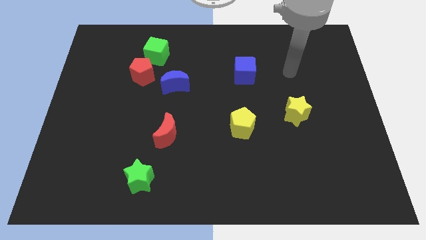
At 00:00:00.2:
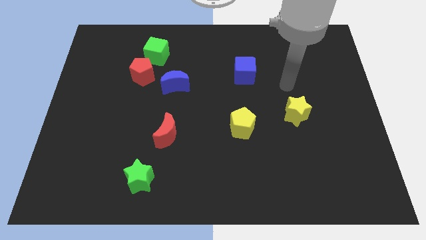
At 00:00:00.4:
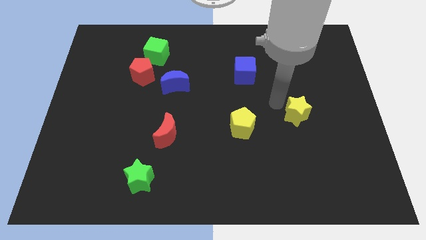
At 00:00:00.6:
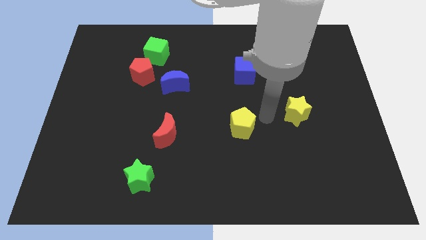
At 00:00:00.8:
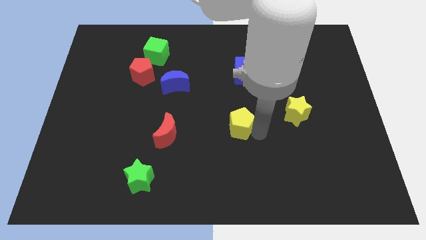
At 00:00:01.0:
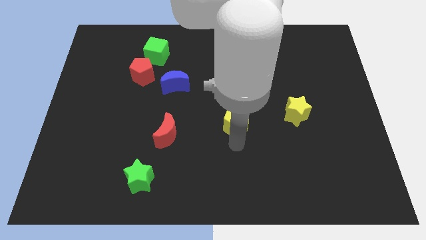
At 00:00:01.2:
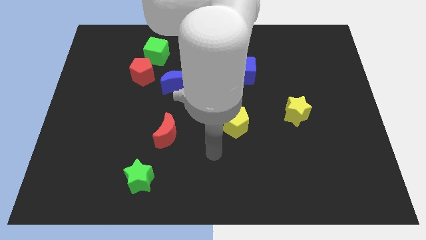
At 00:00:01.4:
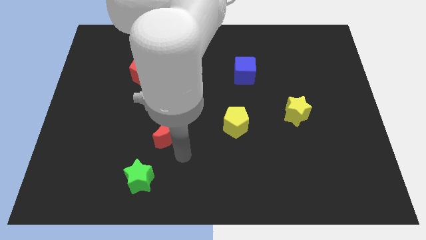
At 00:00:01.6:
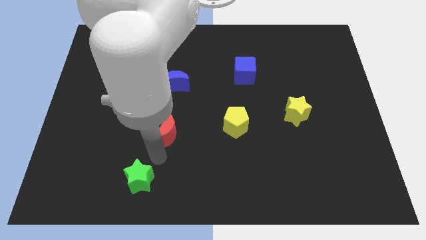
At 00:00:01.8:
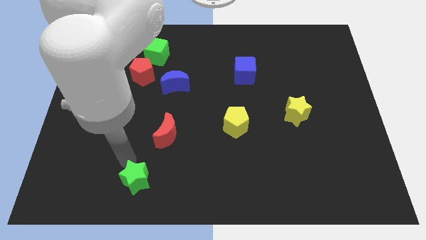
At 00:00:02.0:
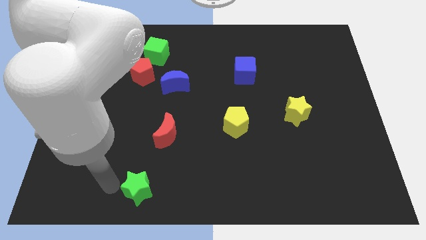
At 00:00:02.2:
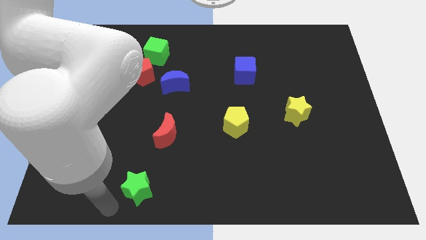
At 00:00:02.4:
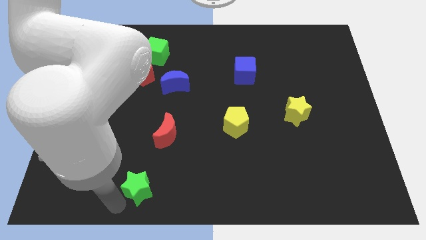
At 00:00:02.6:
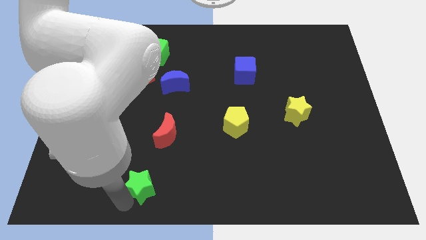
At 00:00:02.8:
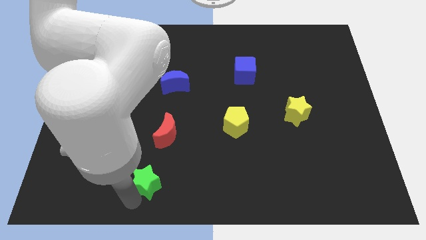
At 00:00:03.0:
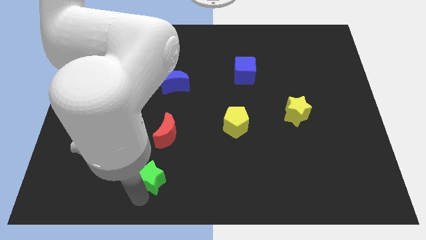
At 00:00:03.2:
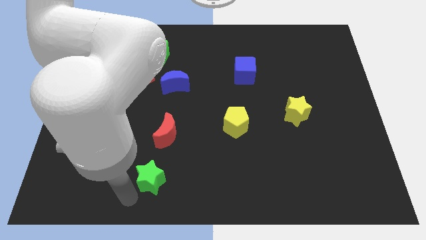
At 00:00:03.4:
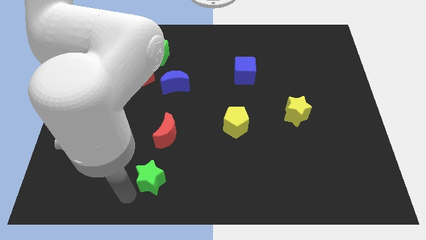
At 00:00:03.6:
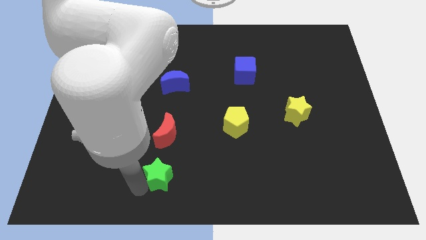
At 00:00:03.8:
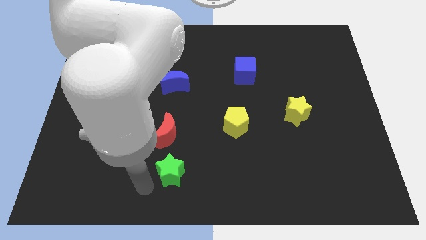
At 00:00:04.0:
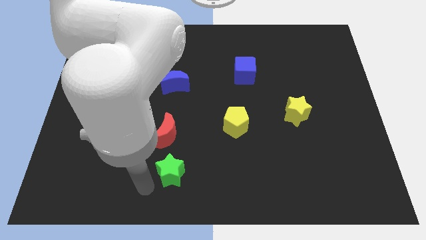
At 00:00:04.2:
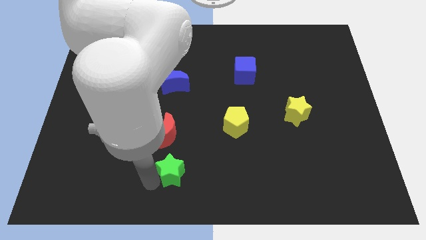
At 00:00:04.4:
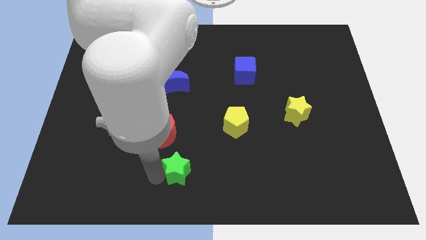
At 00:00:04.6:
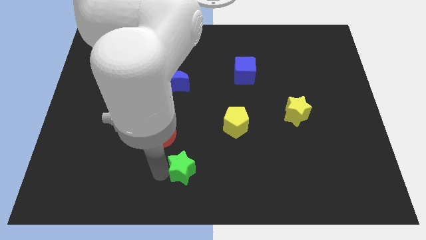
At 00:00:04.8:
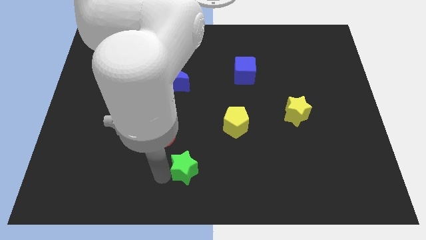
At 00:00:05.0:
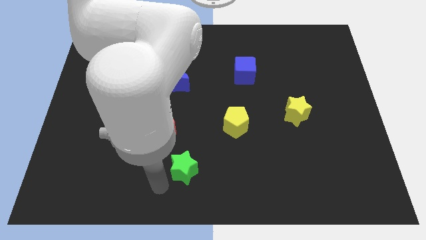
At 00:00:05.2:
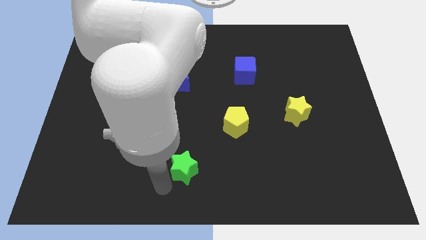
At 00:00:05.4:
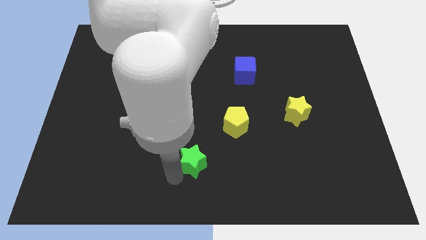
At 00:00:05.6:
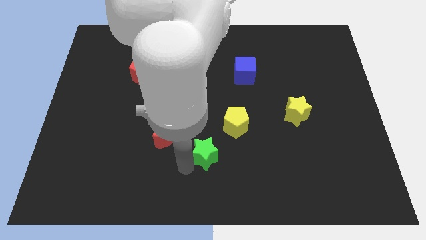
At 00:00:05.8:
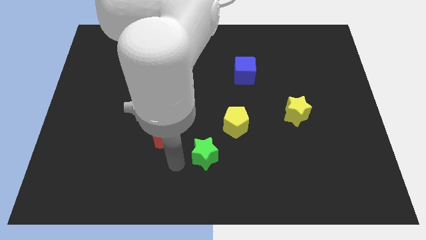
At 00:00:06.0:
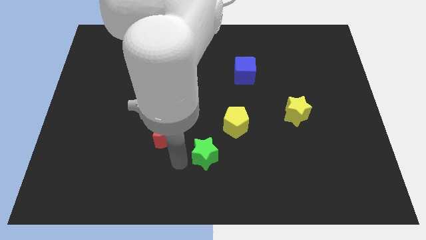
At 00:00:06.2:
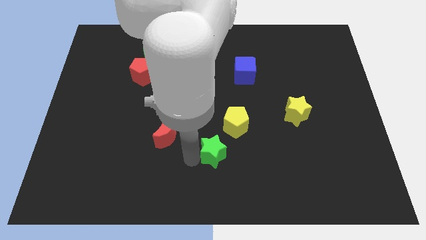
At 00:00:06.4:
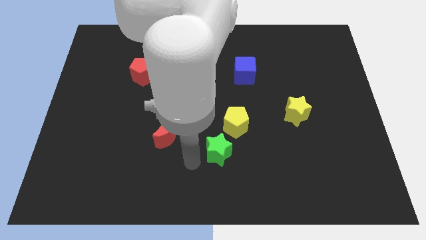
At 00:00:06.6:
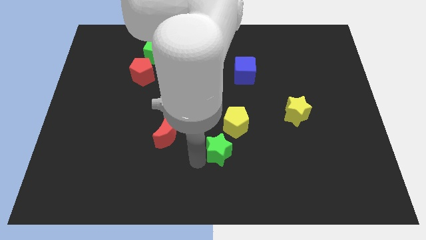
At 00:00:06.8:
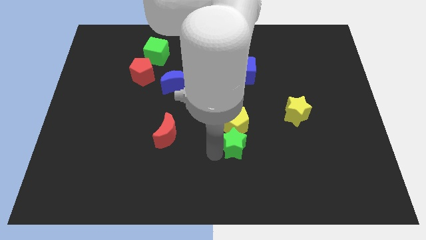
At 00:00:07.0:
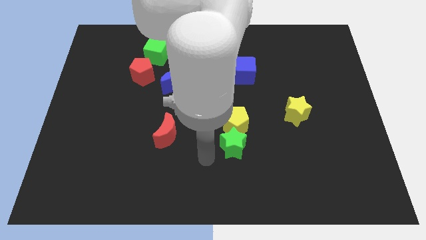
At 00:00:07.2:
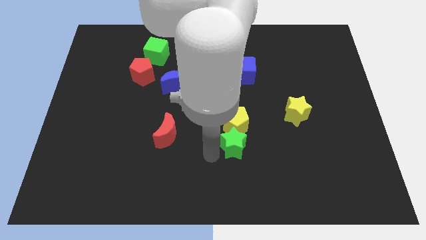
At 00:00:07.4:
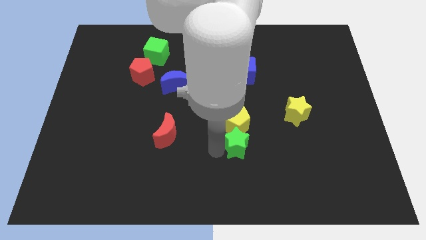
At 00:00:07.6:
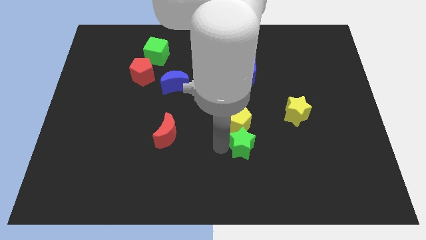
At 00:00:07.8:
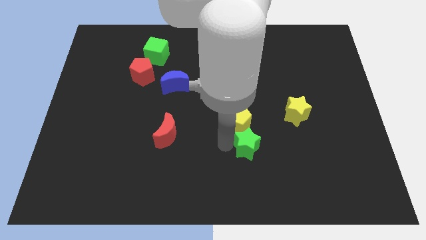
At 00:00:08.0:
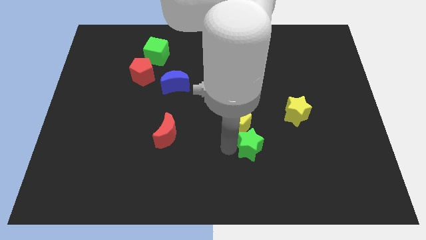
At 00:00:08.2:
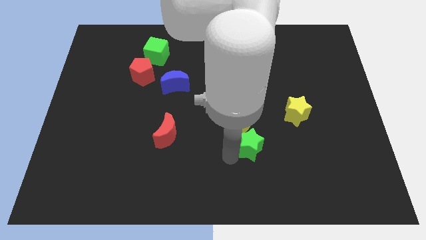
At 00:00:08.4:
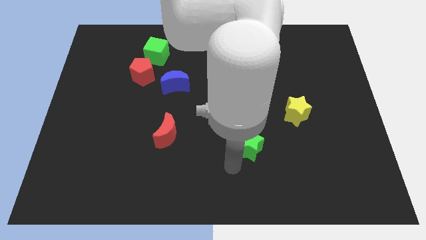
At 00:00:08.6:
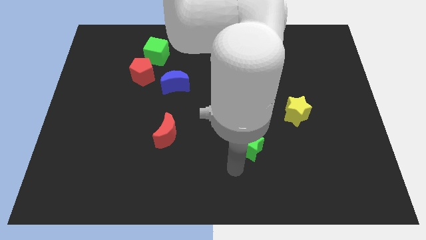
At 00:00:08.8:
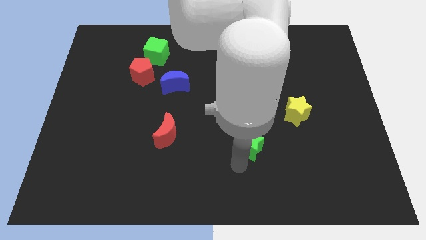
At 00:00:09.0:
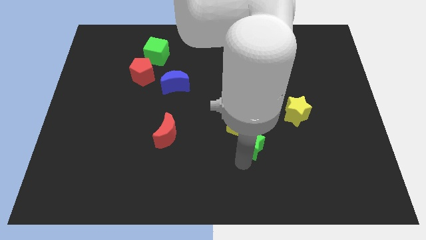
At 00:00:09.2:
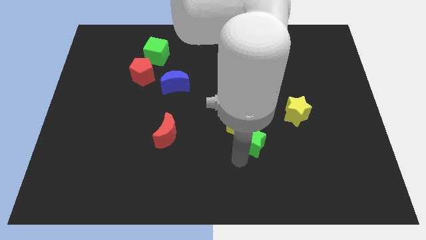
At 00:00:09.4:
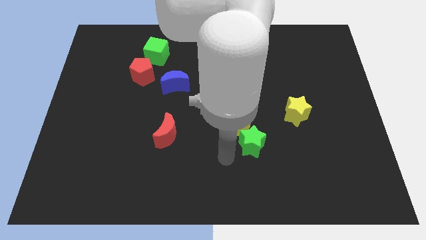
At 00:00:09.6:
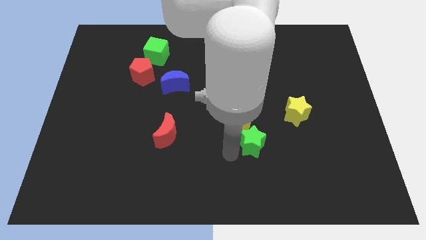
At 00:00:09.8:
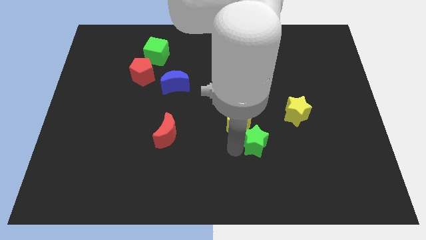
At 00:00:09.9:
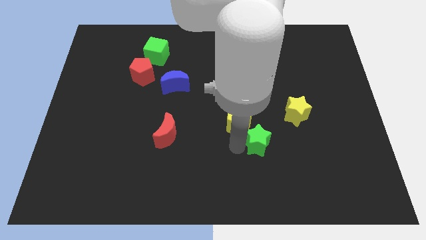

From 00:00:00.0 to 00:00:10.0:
push the green star to the bottom left of the yellow star

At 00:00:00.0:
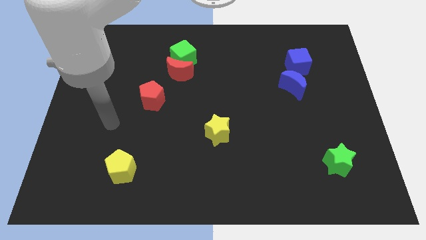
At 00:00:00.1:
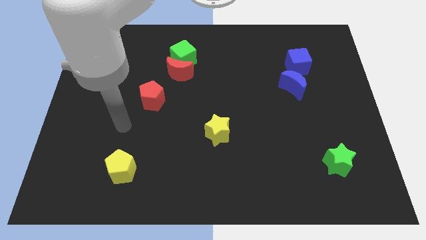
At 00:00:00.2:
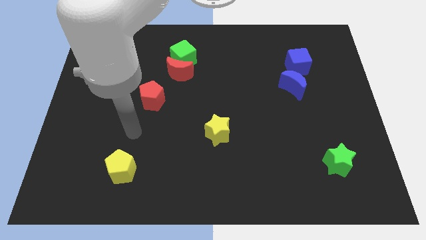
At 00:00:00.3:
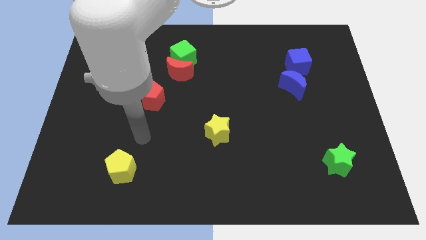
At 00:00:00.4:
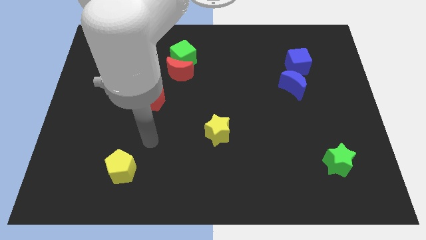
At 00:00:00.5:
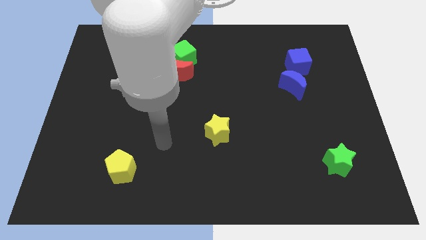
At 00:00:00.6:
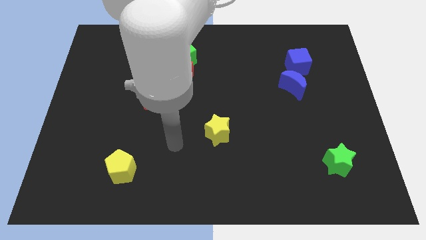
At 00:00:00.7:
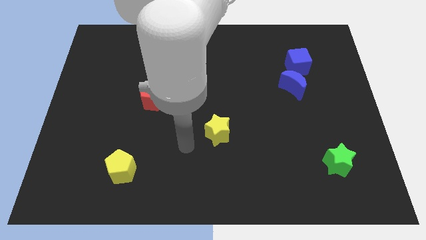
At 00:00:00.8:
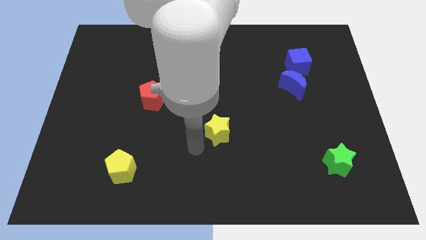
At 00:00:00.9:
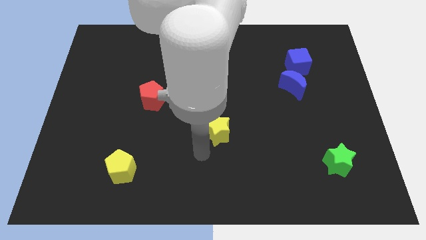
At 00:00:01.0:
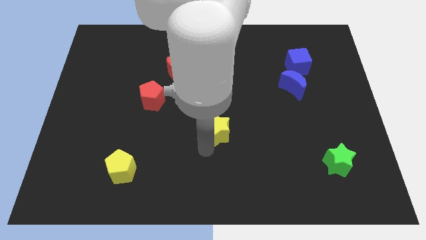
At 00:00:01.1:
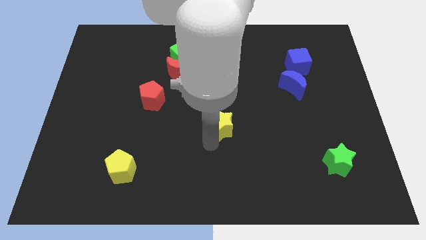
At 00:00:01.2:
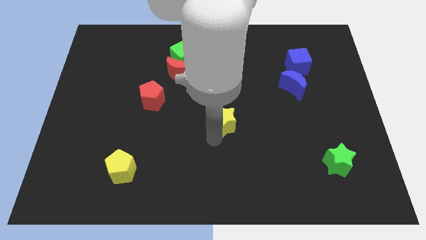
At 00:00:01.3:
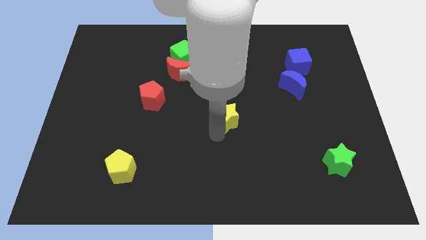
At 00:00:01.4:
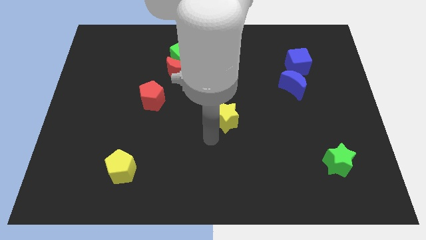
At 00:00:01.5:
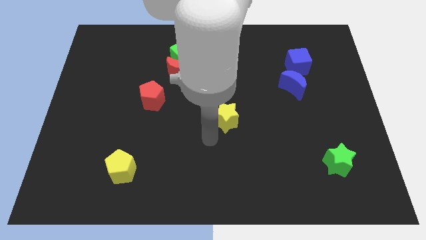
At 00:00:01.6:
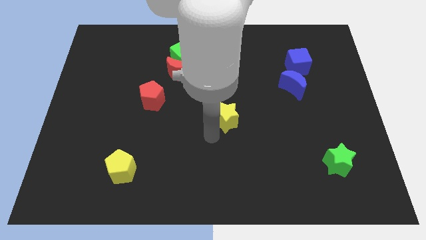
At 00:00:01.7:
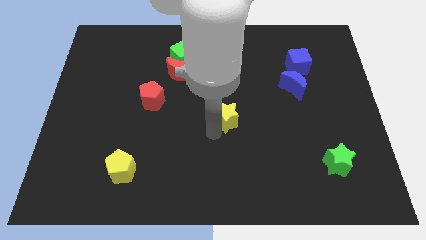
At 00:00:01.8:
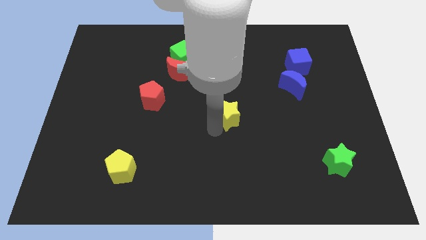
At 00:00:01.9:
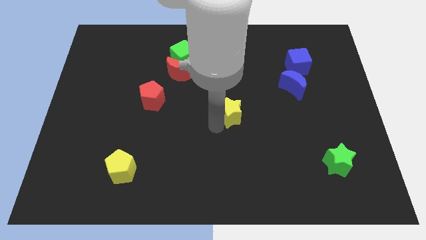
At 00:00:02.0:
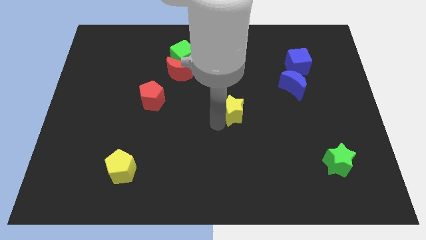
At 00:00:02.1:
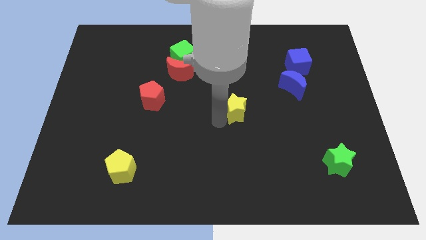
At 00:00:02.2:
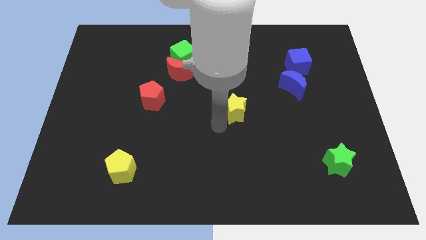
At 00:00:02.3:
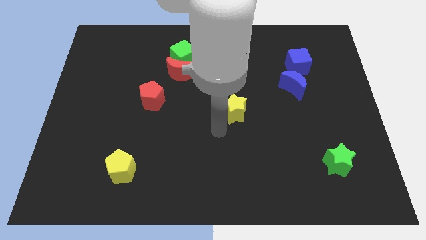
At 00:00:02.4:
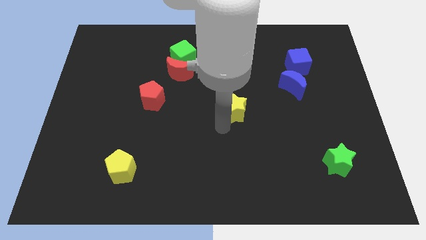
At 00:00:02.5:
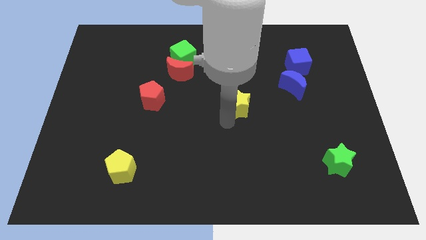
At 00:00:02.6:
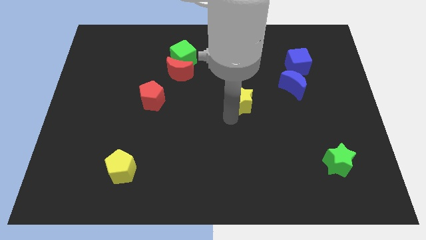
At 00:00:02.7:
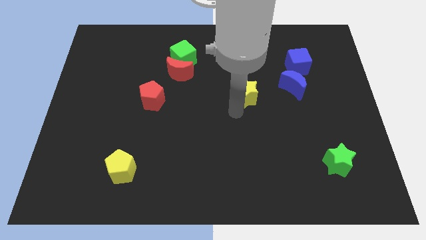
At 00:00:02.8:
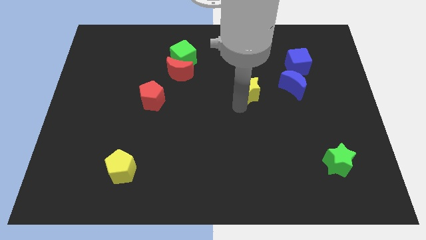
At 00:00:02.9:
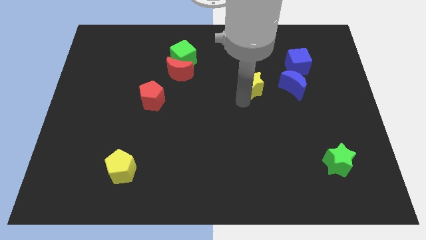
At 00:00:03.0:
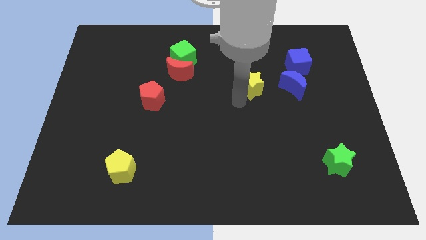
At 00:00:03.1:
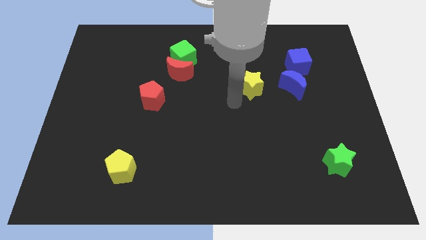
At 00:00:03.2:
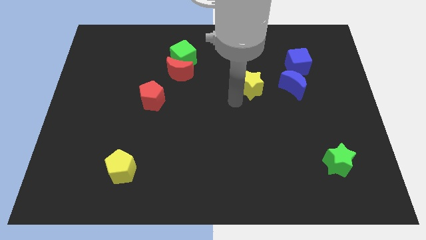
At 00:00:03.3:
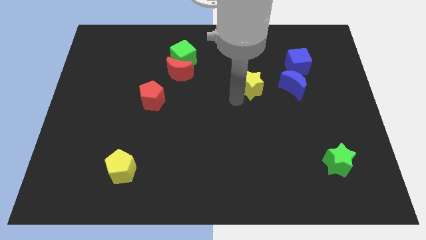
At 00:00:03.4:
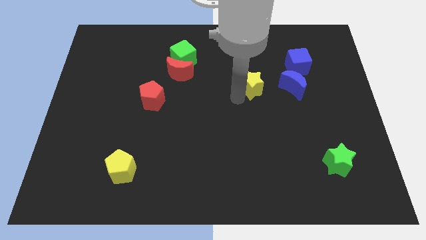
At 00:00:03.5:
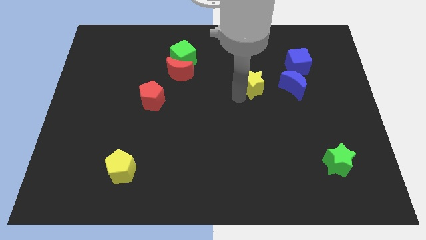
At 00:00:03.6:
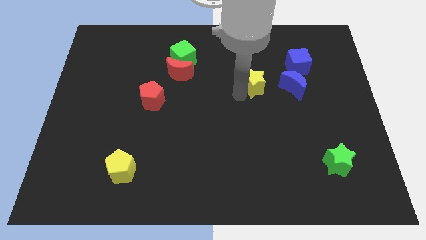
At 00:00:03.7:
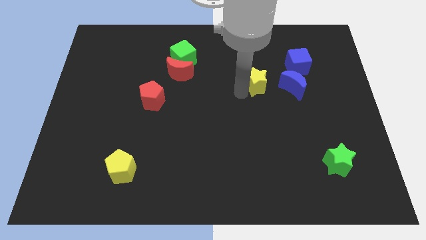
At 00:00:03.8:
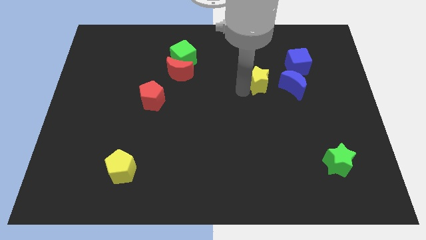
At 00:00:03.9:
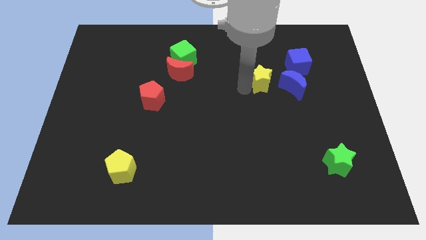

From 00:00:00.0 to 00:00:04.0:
slide the yellow star to the top left of the blue moon
